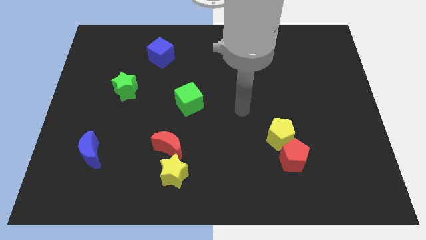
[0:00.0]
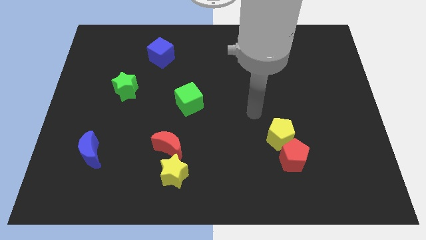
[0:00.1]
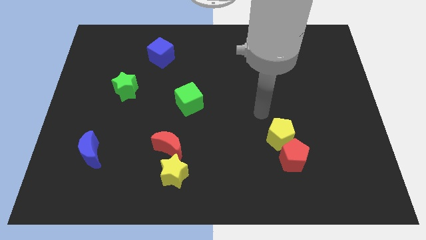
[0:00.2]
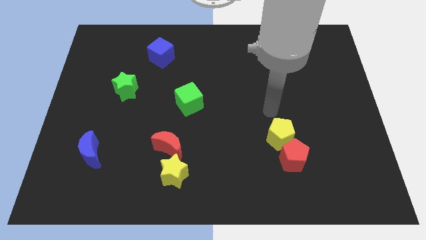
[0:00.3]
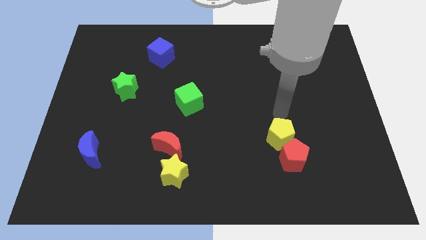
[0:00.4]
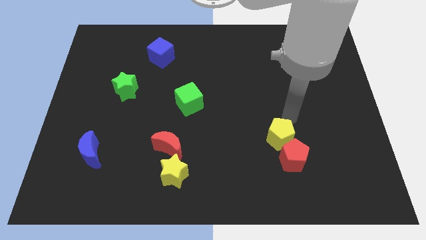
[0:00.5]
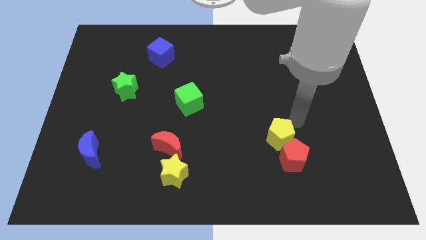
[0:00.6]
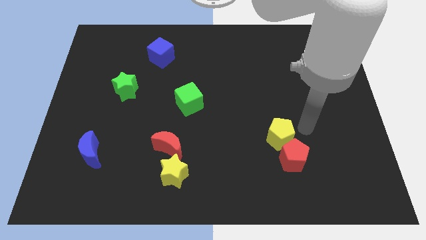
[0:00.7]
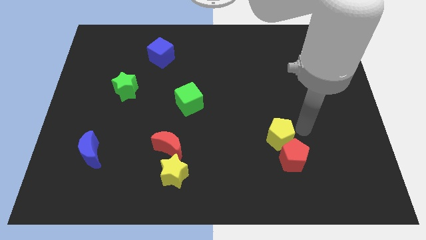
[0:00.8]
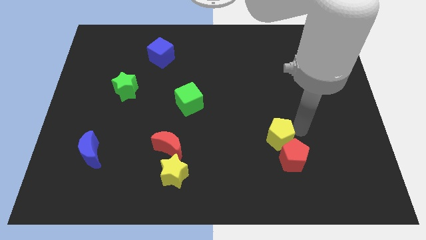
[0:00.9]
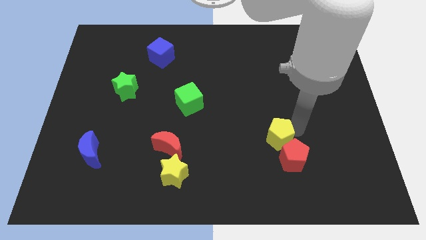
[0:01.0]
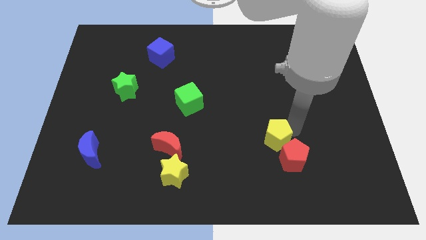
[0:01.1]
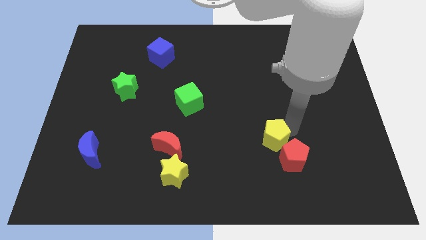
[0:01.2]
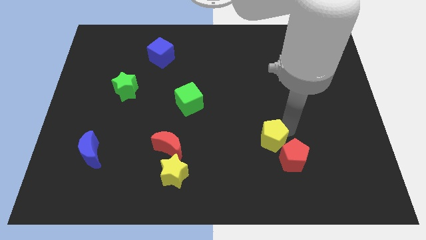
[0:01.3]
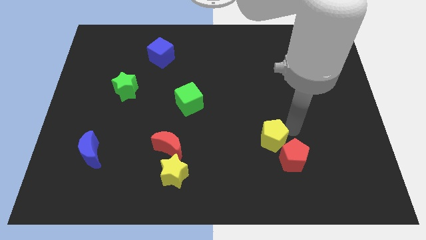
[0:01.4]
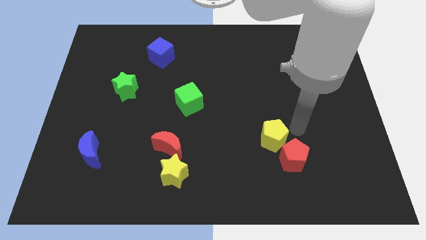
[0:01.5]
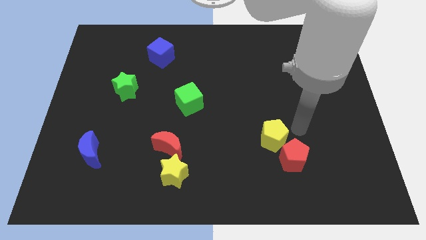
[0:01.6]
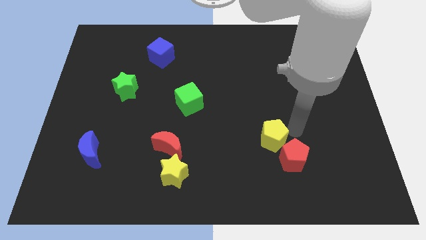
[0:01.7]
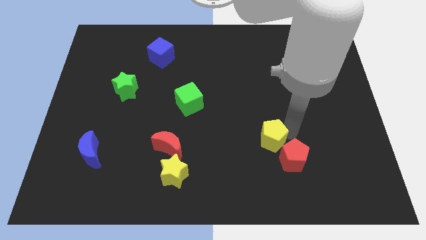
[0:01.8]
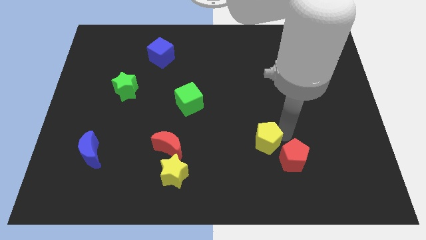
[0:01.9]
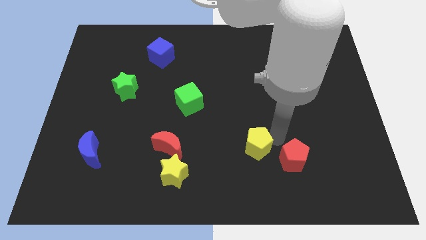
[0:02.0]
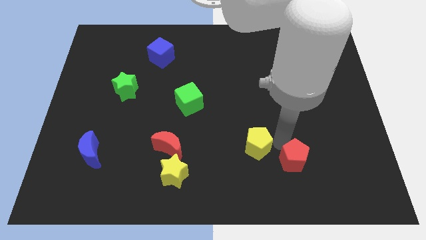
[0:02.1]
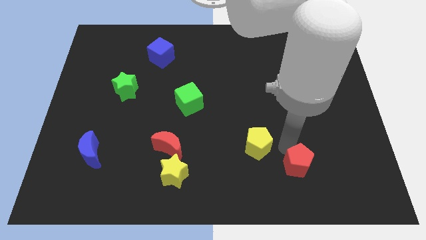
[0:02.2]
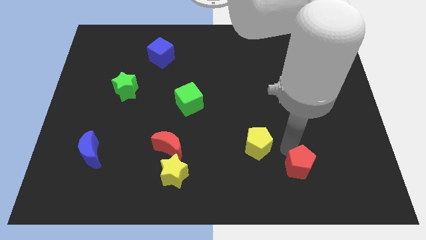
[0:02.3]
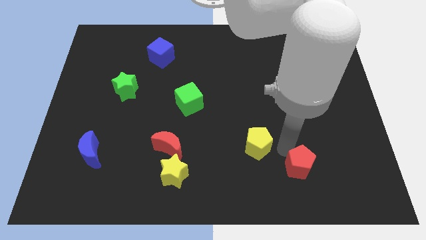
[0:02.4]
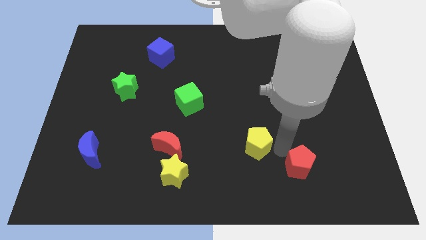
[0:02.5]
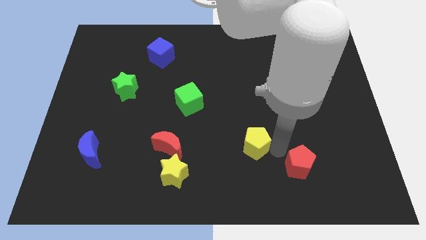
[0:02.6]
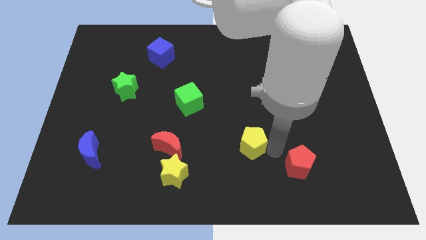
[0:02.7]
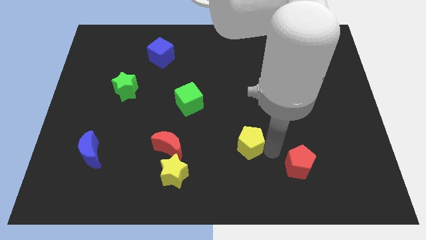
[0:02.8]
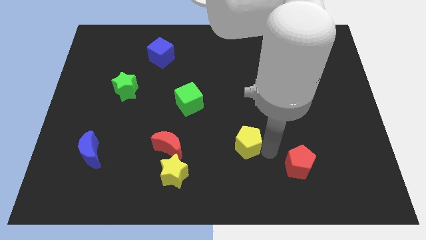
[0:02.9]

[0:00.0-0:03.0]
slightly move the yellow pentagon left

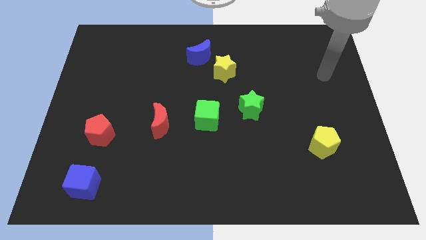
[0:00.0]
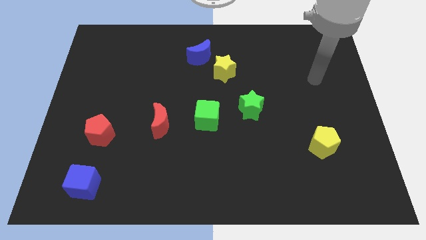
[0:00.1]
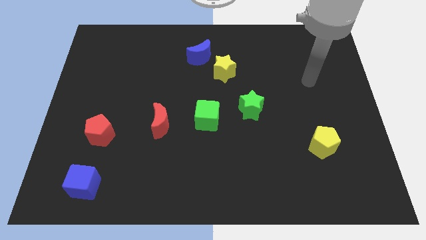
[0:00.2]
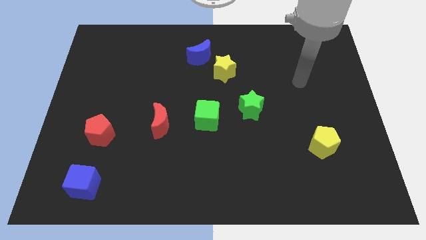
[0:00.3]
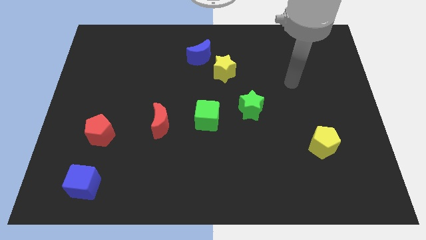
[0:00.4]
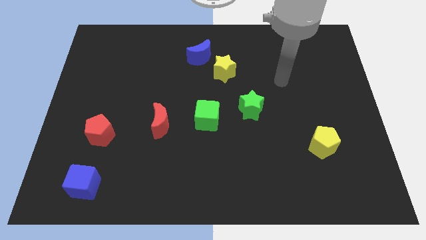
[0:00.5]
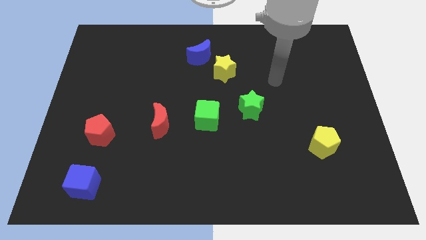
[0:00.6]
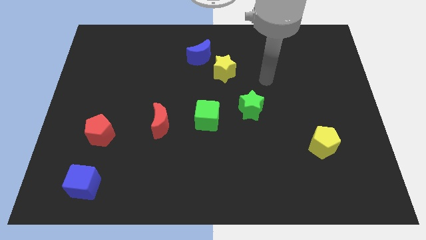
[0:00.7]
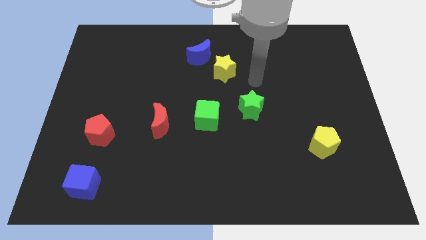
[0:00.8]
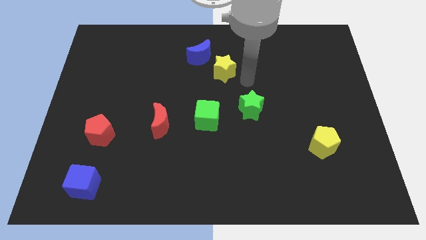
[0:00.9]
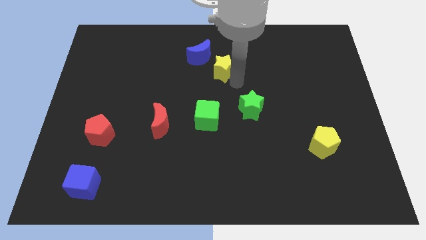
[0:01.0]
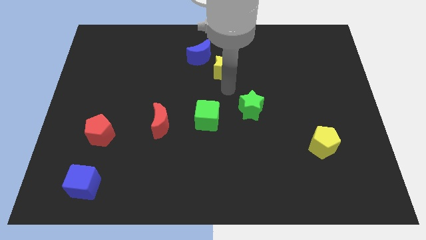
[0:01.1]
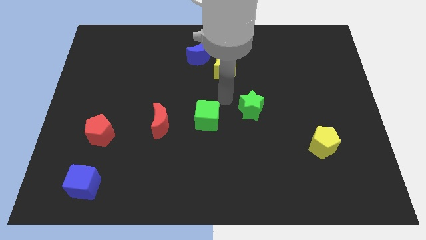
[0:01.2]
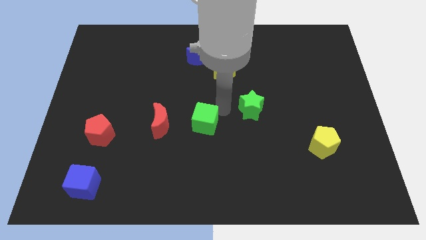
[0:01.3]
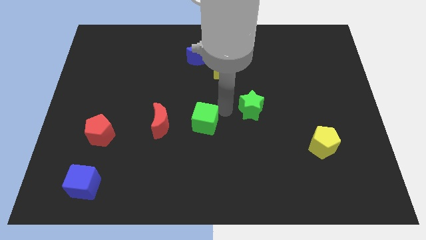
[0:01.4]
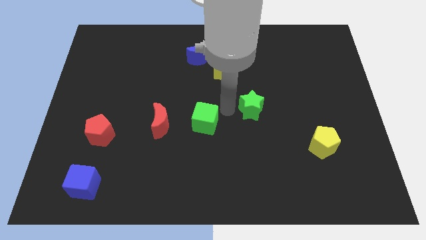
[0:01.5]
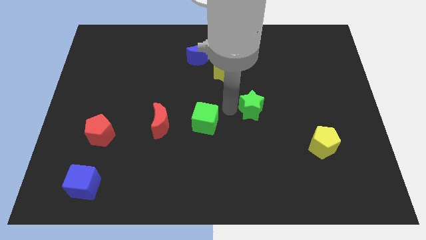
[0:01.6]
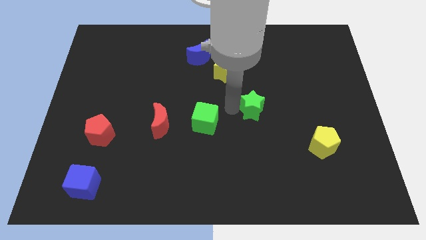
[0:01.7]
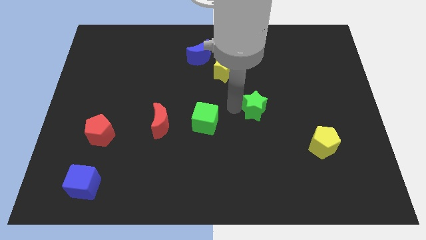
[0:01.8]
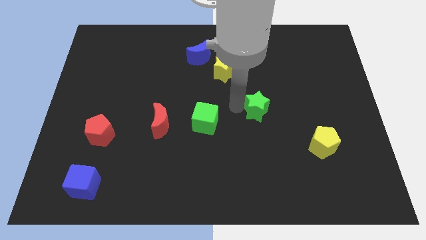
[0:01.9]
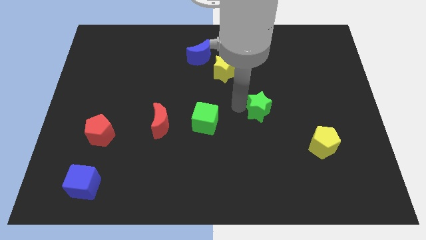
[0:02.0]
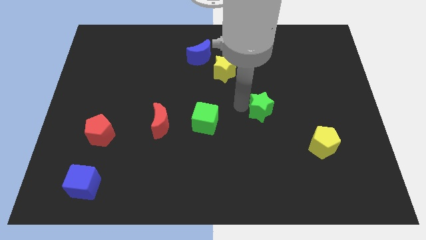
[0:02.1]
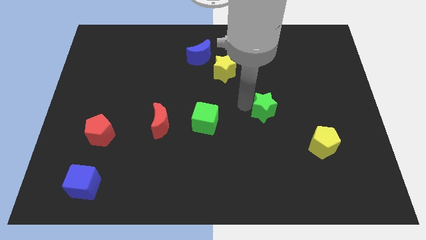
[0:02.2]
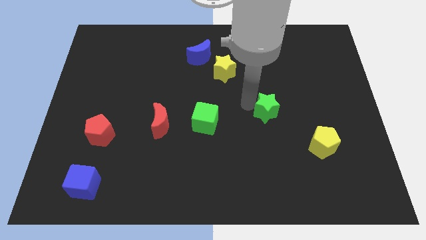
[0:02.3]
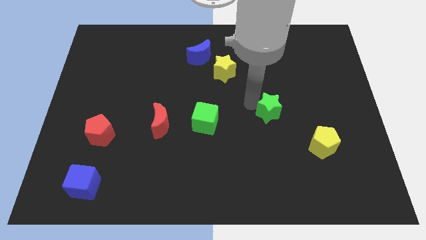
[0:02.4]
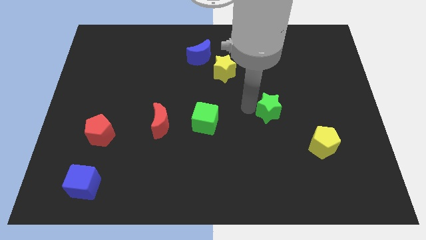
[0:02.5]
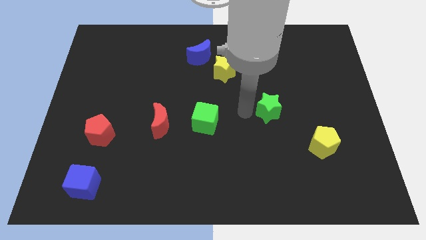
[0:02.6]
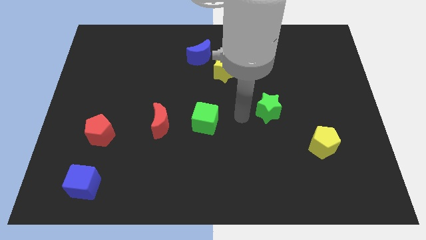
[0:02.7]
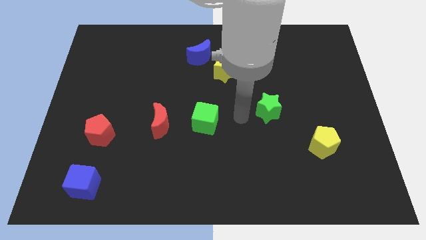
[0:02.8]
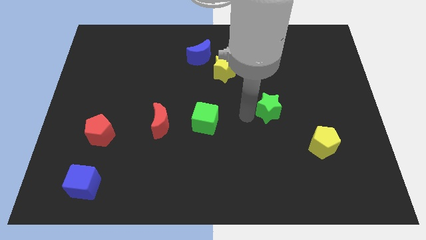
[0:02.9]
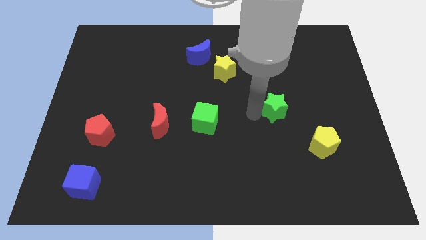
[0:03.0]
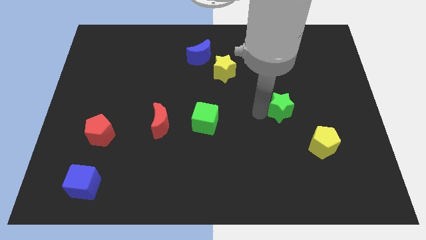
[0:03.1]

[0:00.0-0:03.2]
push the green star to the right slightly

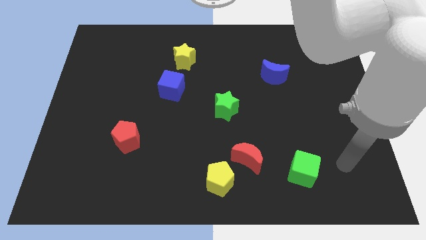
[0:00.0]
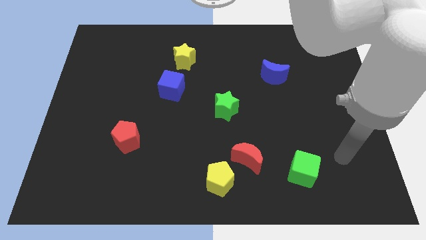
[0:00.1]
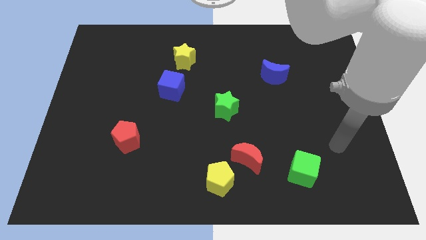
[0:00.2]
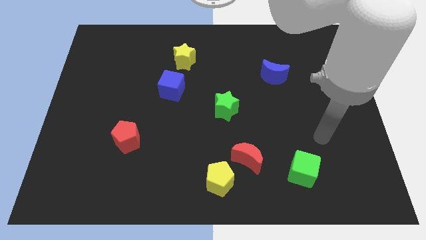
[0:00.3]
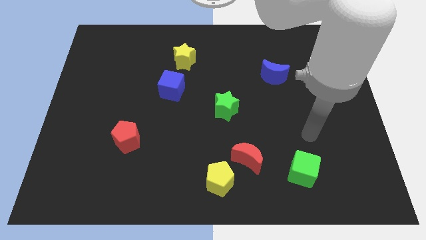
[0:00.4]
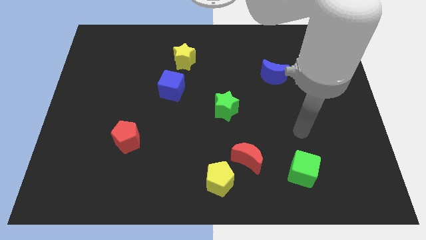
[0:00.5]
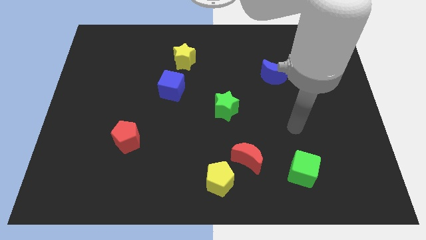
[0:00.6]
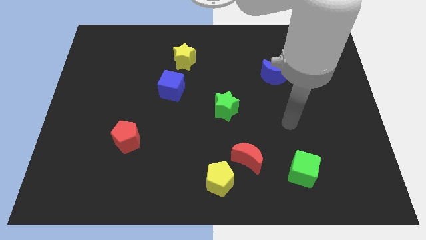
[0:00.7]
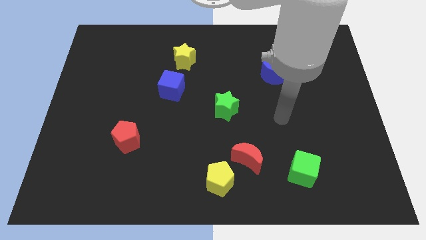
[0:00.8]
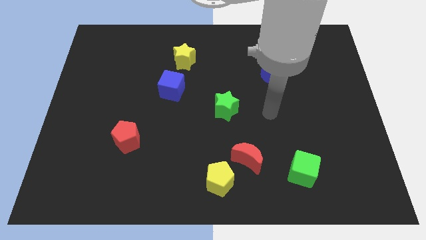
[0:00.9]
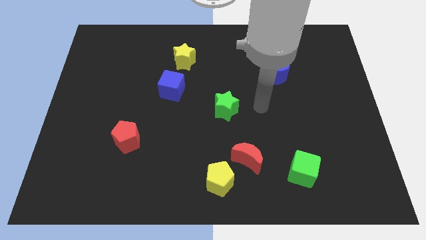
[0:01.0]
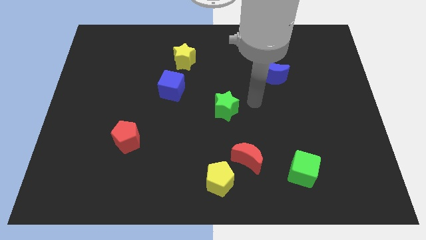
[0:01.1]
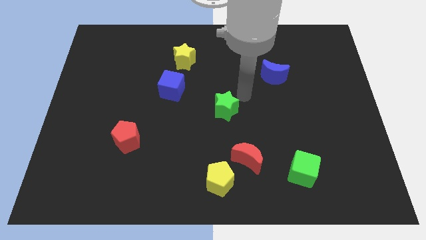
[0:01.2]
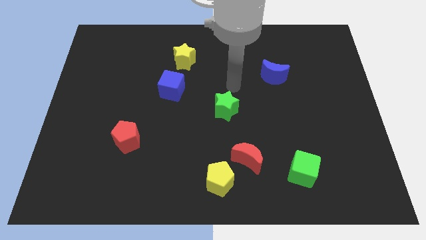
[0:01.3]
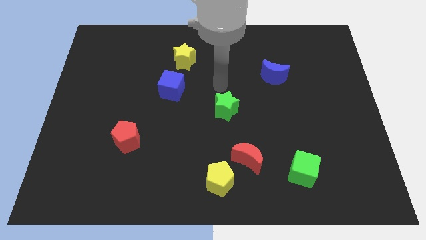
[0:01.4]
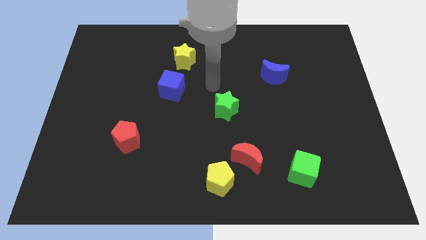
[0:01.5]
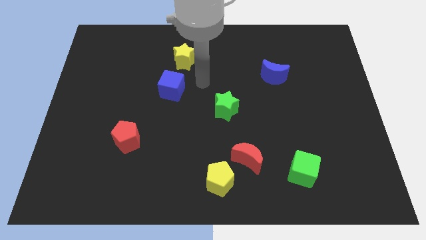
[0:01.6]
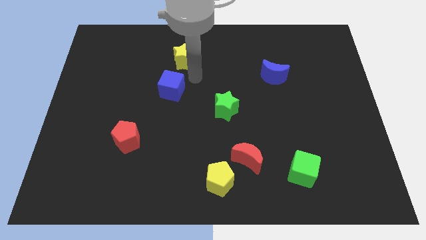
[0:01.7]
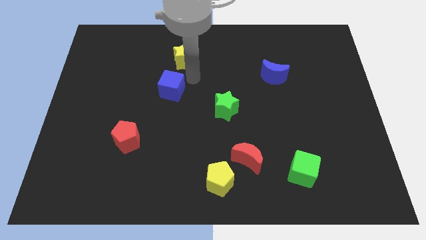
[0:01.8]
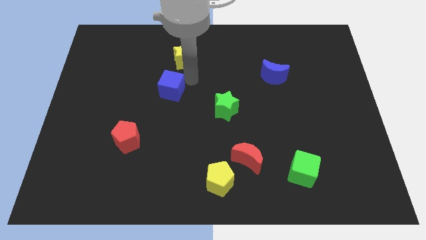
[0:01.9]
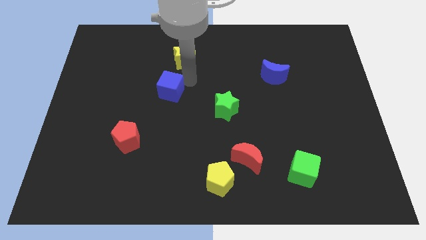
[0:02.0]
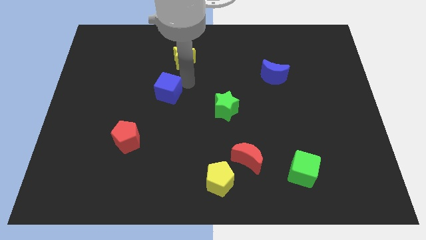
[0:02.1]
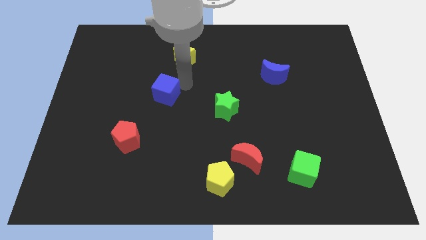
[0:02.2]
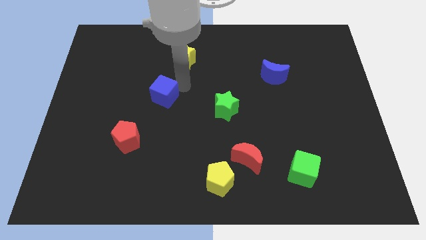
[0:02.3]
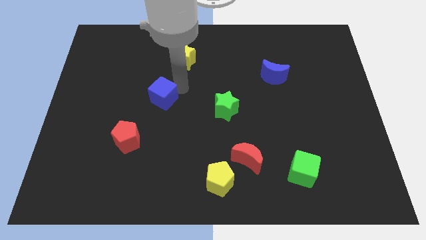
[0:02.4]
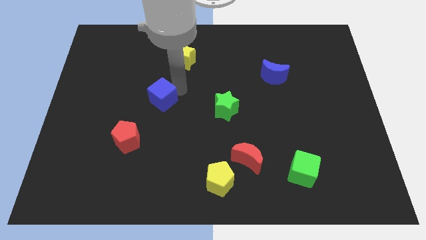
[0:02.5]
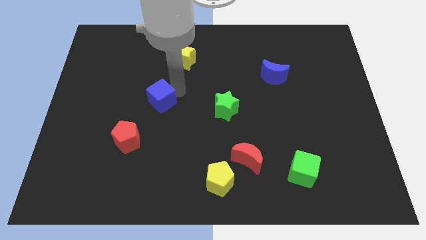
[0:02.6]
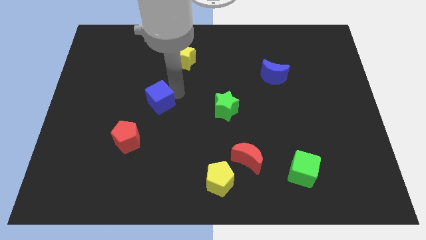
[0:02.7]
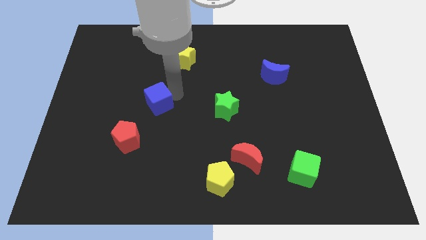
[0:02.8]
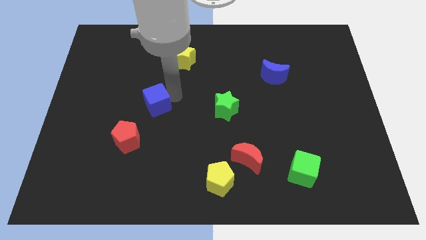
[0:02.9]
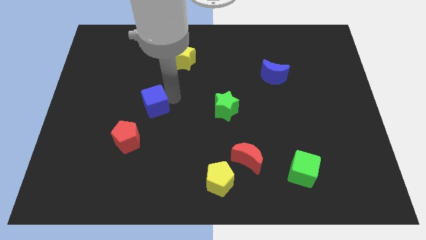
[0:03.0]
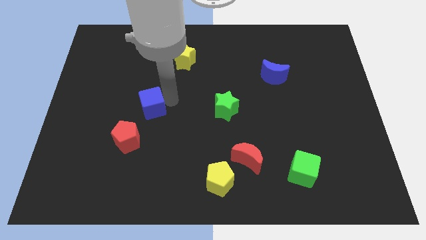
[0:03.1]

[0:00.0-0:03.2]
slide the blue cube down and left somewhat
